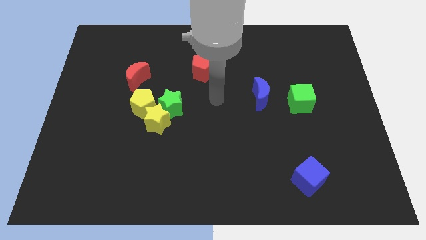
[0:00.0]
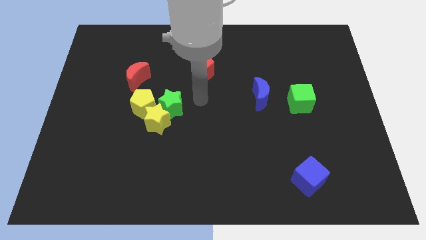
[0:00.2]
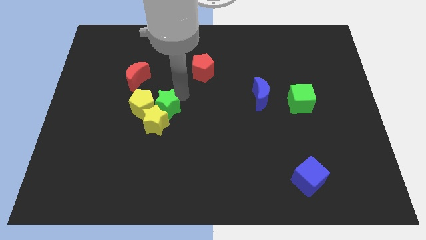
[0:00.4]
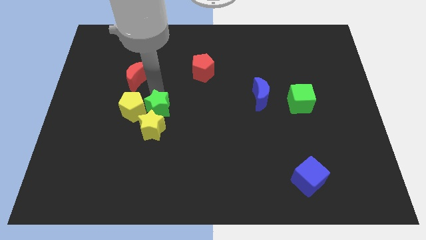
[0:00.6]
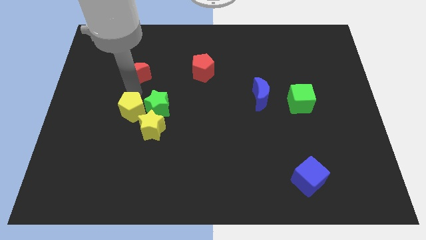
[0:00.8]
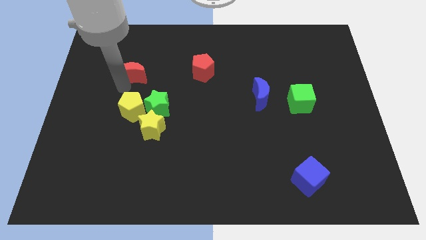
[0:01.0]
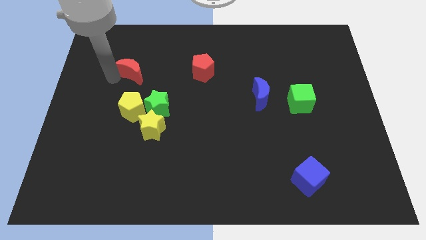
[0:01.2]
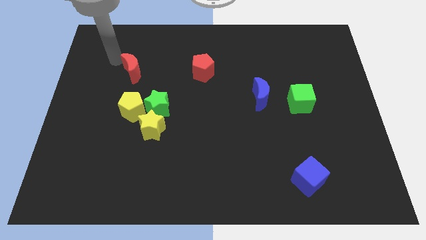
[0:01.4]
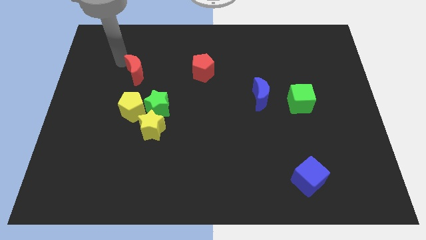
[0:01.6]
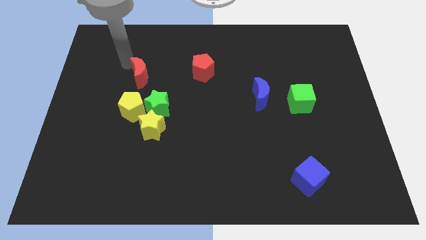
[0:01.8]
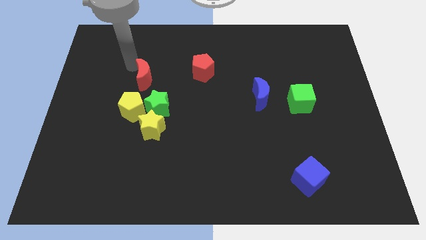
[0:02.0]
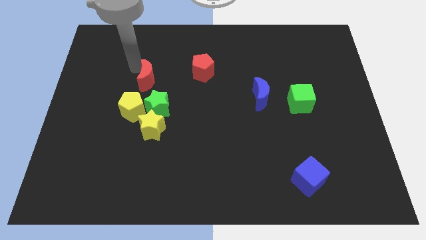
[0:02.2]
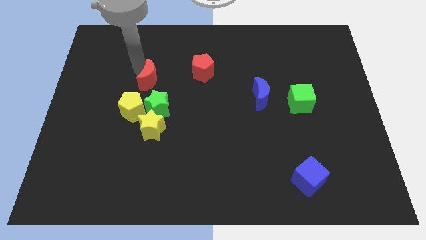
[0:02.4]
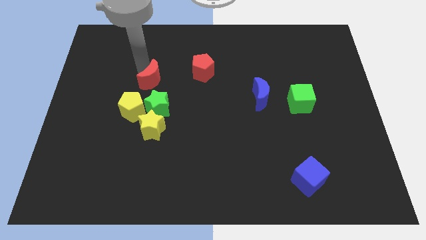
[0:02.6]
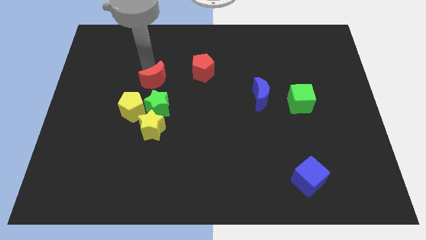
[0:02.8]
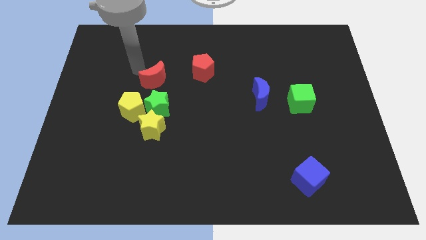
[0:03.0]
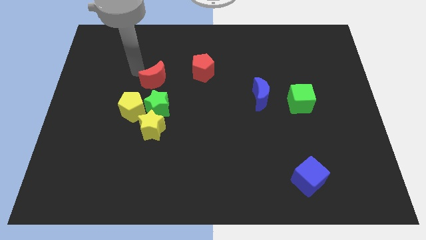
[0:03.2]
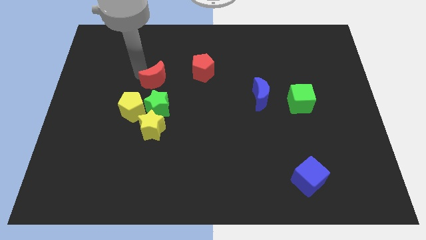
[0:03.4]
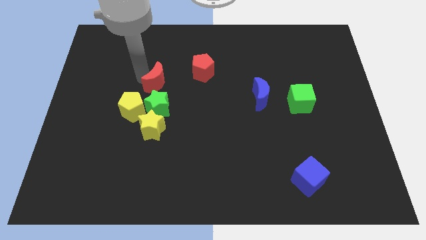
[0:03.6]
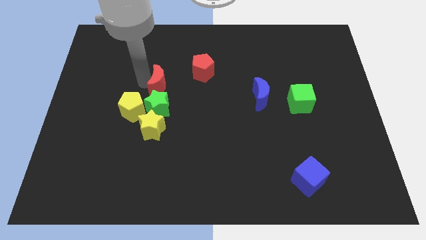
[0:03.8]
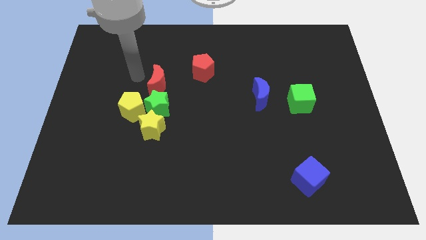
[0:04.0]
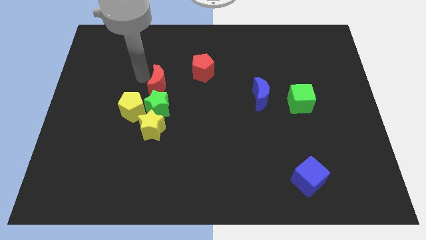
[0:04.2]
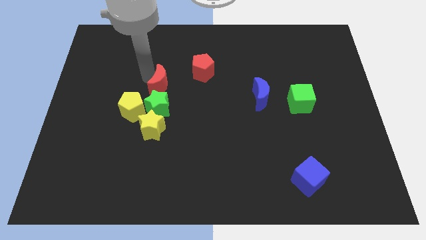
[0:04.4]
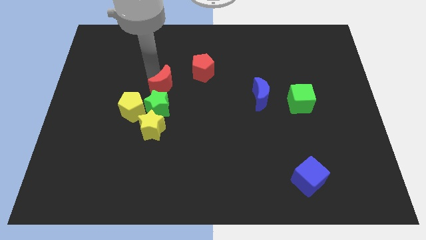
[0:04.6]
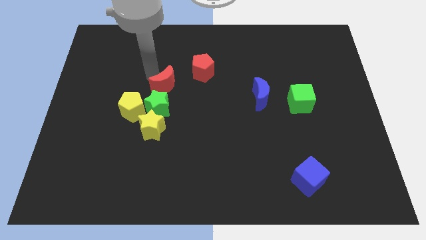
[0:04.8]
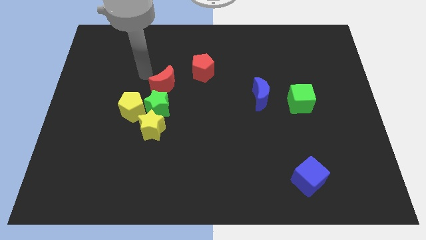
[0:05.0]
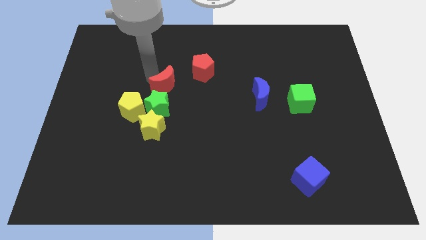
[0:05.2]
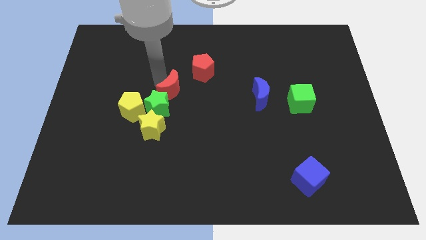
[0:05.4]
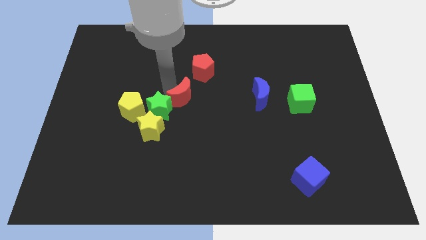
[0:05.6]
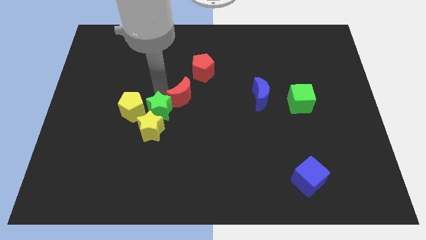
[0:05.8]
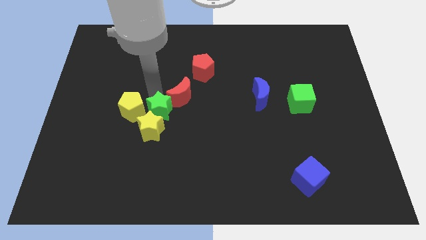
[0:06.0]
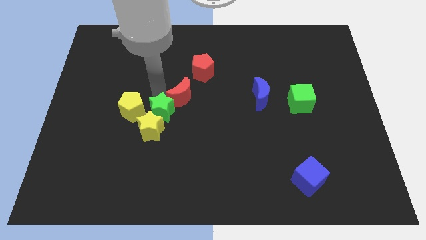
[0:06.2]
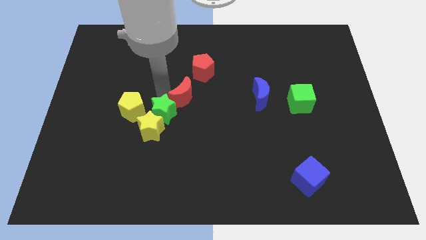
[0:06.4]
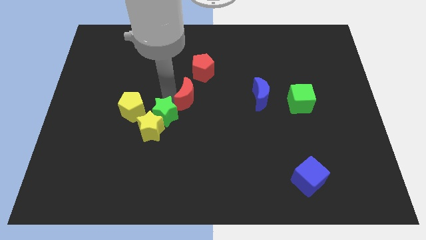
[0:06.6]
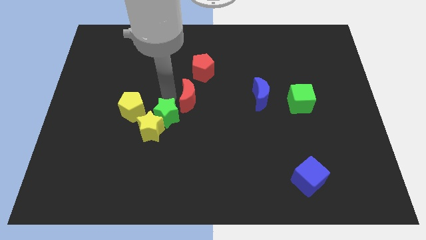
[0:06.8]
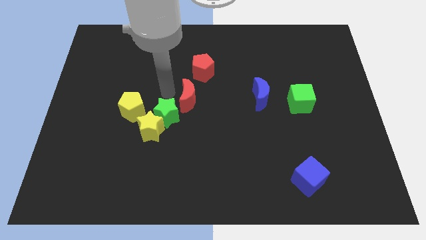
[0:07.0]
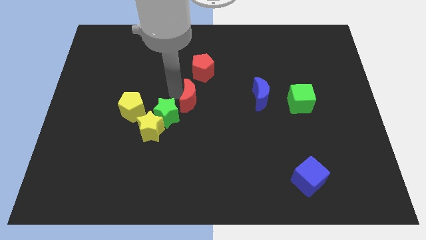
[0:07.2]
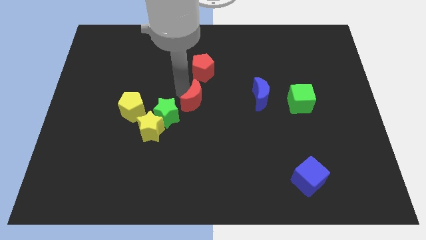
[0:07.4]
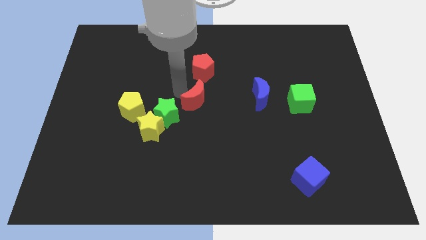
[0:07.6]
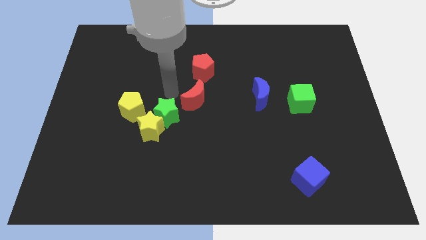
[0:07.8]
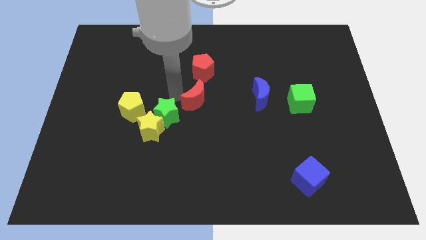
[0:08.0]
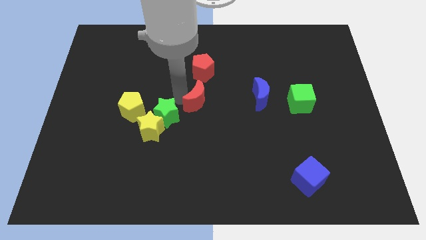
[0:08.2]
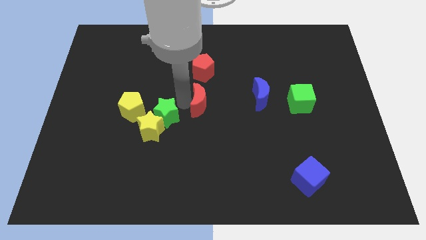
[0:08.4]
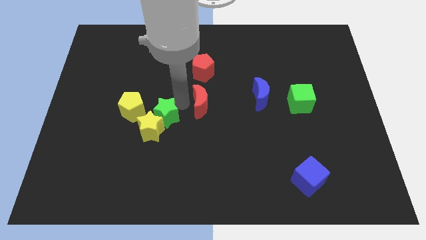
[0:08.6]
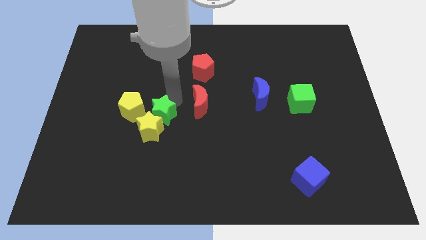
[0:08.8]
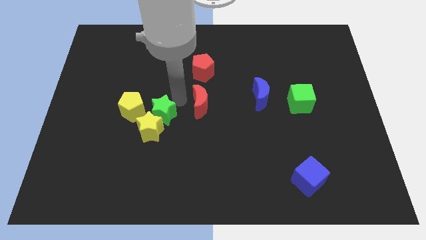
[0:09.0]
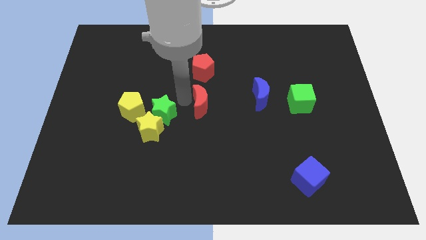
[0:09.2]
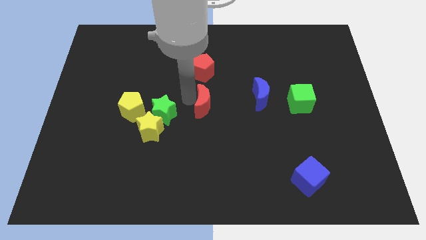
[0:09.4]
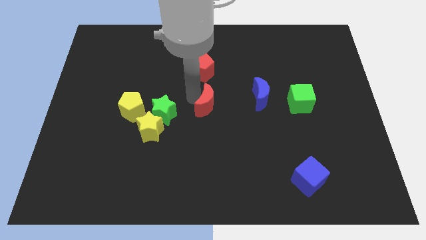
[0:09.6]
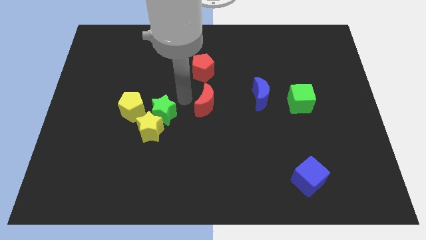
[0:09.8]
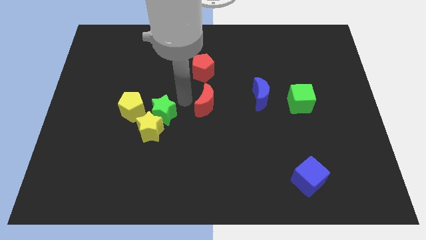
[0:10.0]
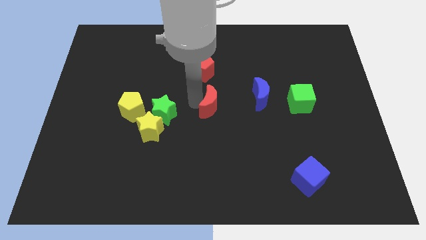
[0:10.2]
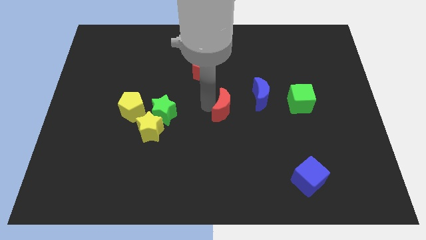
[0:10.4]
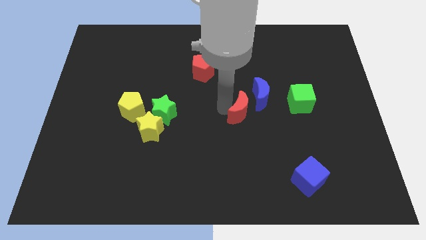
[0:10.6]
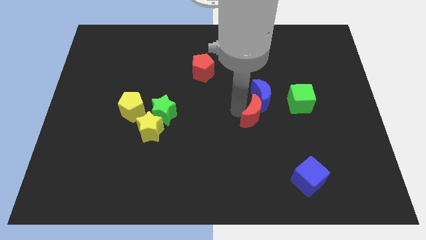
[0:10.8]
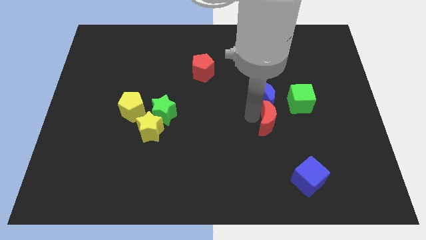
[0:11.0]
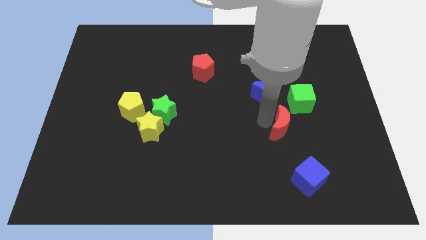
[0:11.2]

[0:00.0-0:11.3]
move the red moon to the top side of the blue cube
